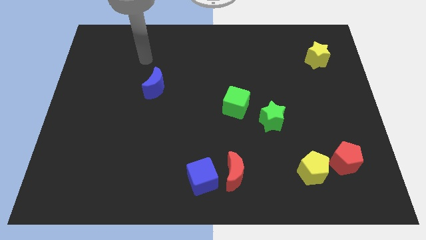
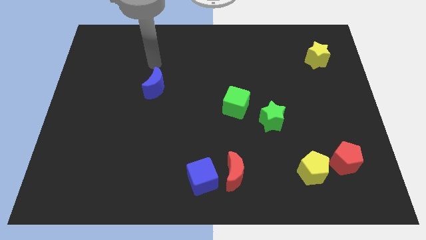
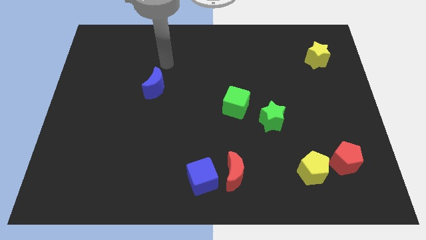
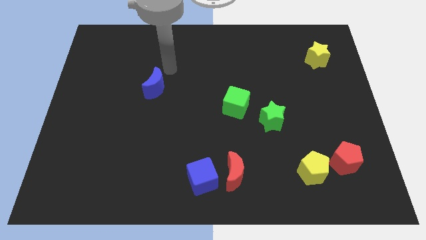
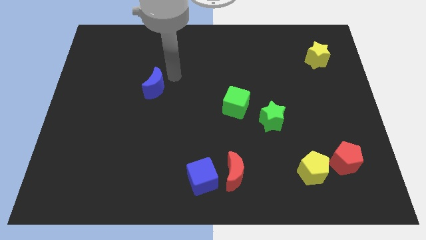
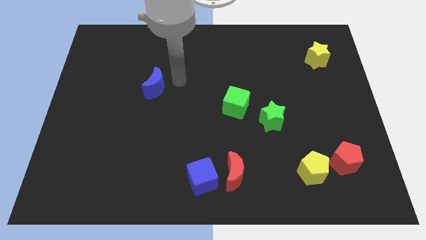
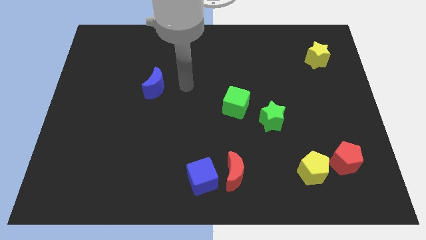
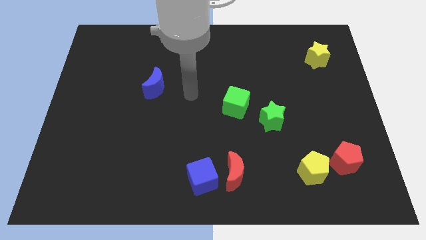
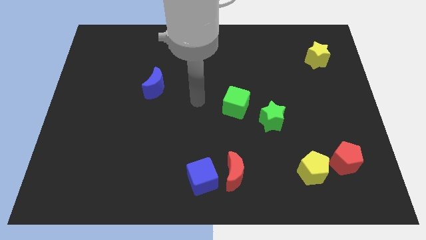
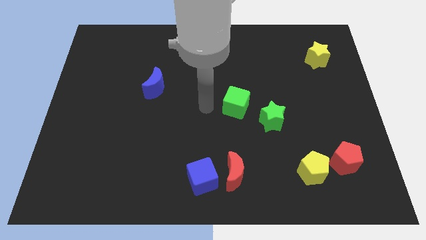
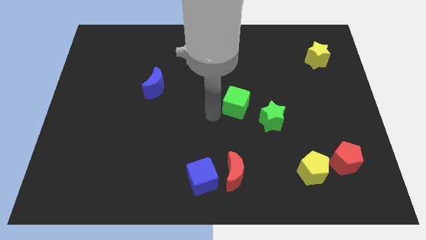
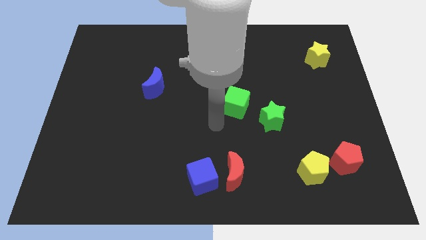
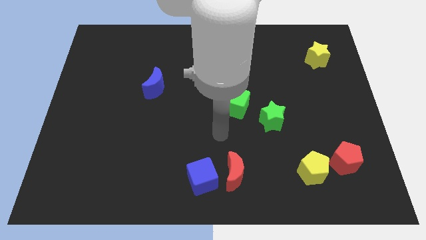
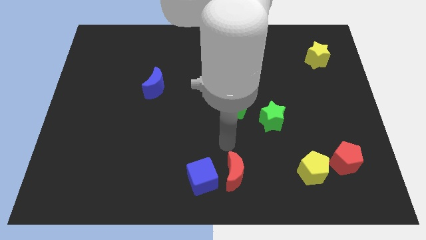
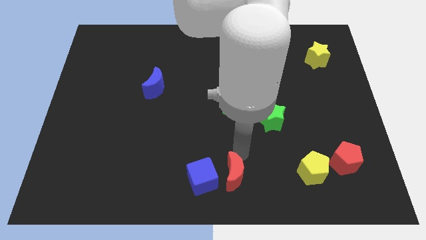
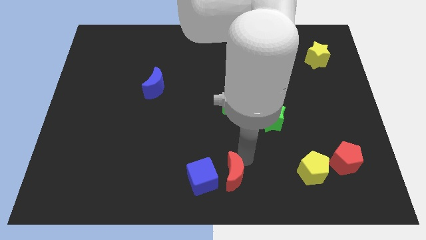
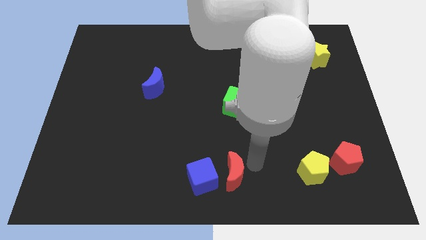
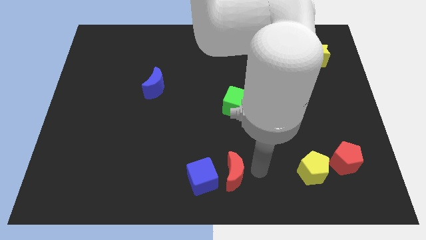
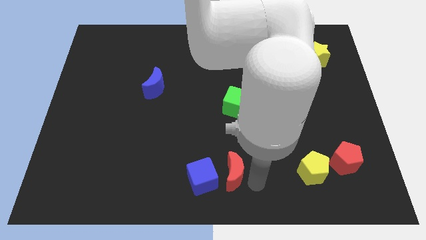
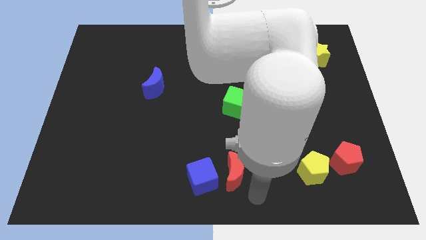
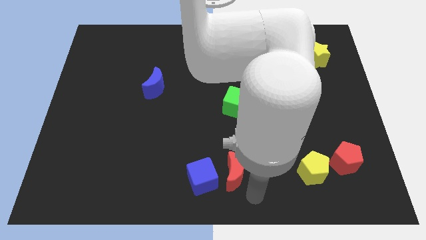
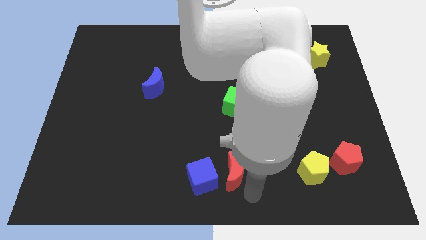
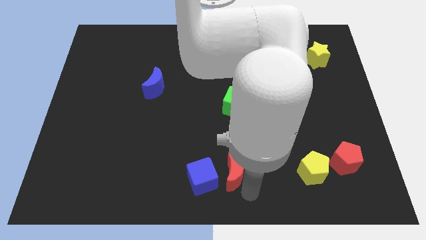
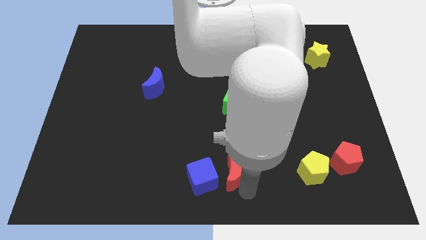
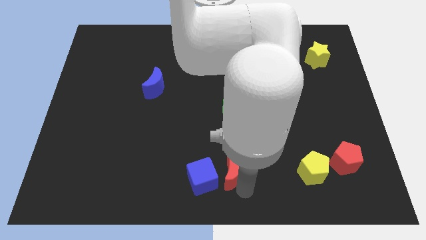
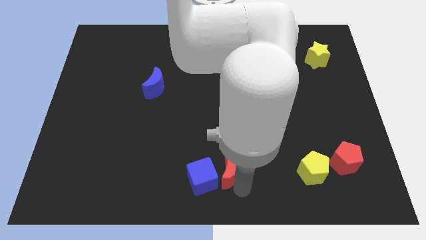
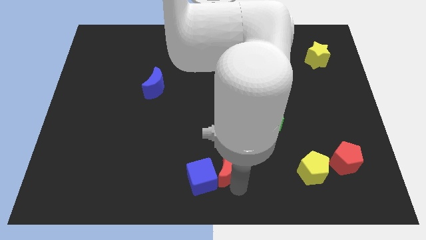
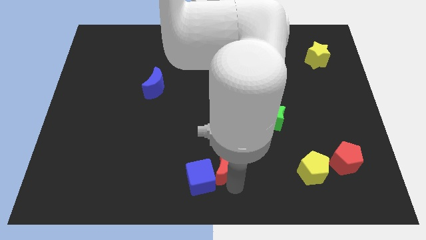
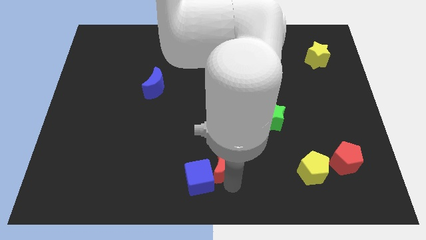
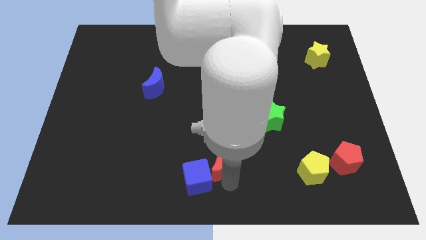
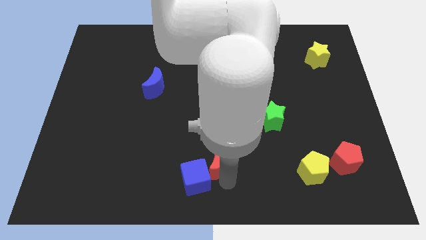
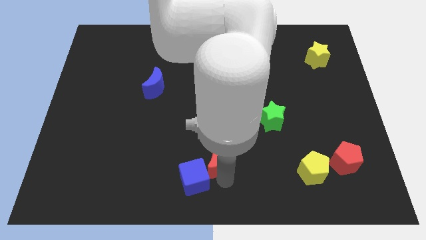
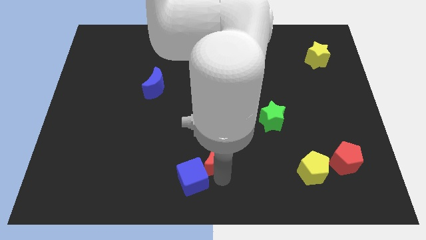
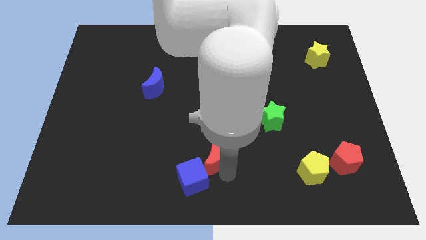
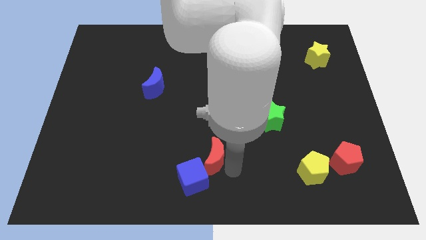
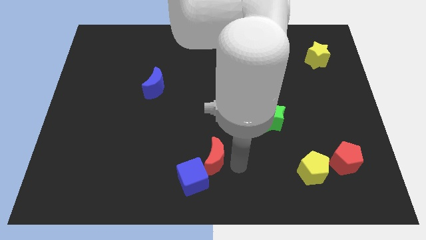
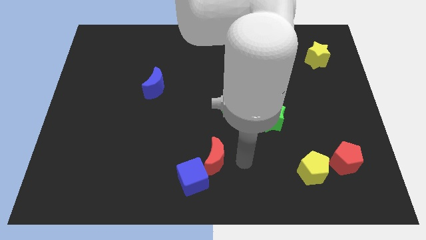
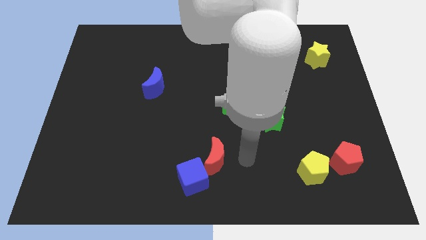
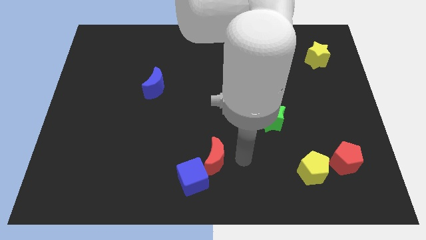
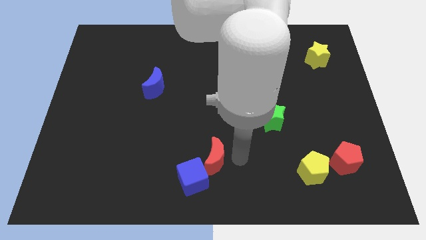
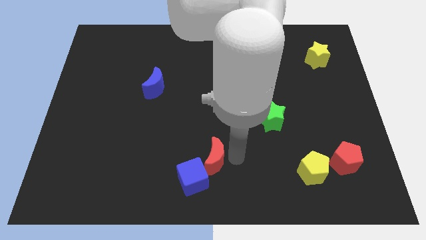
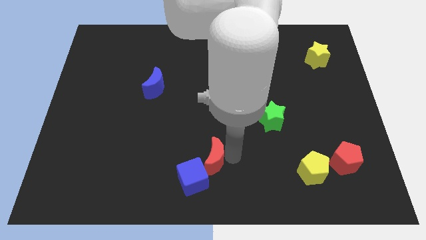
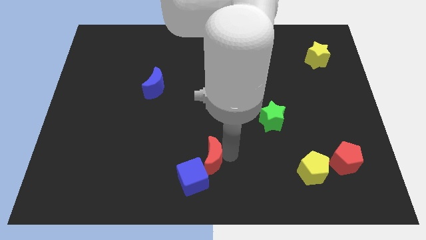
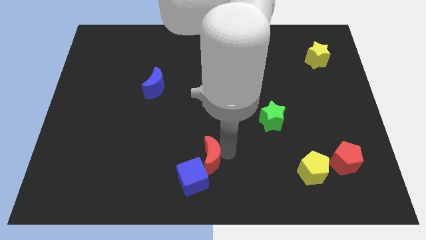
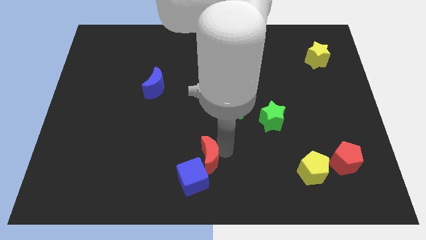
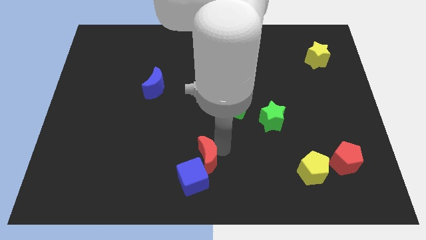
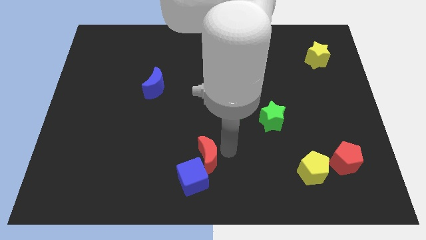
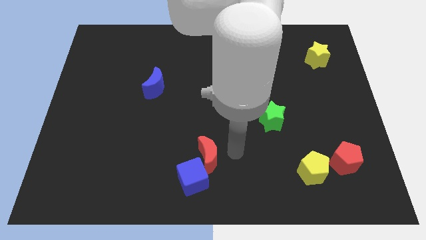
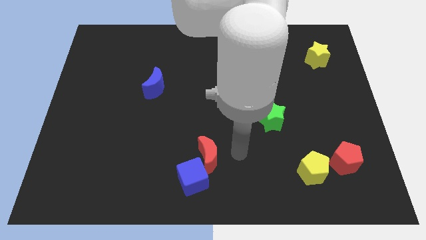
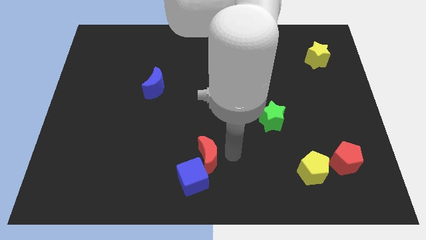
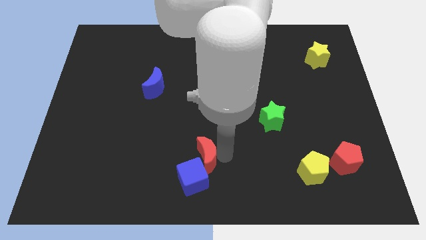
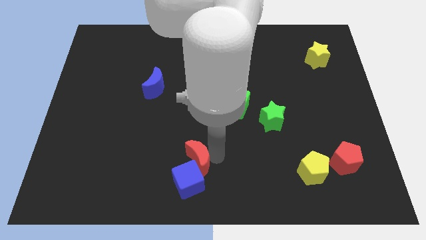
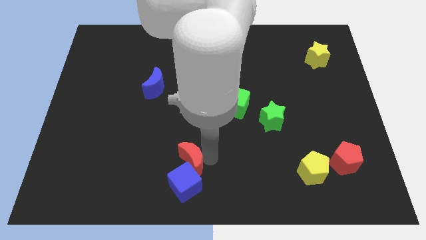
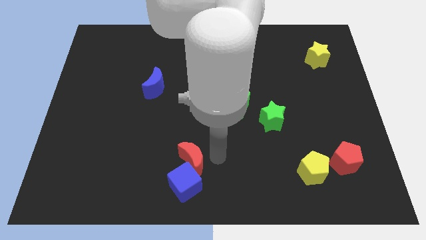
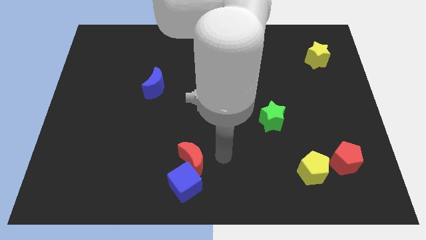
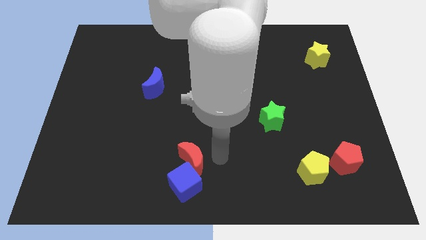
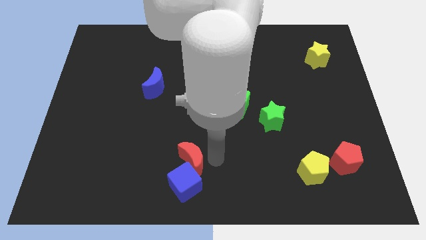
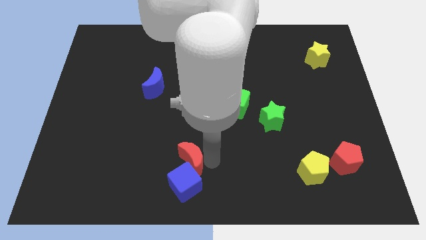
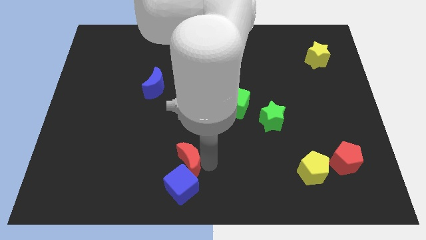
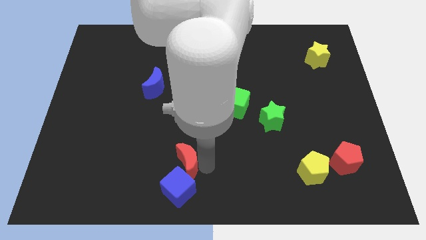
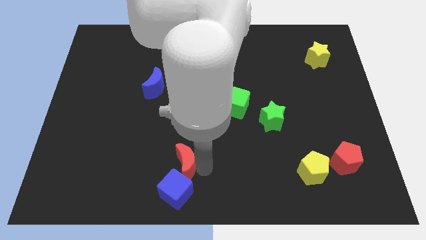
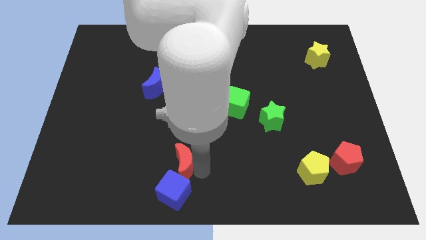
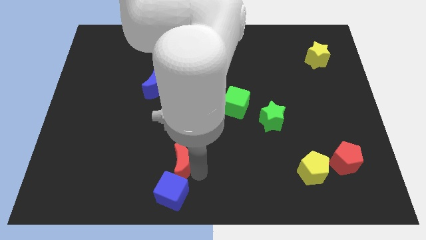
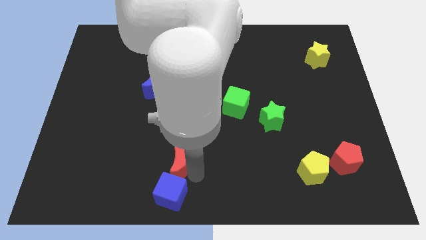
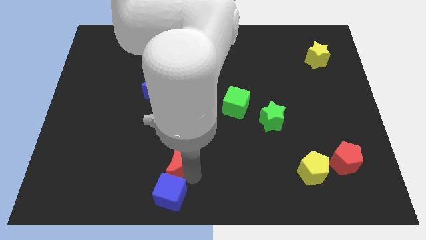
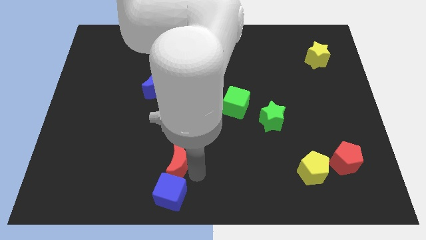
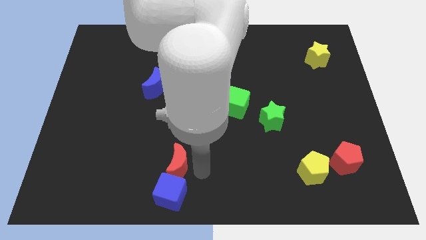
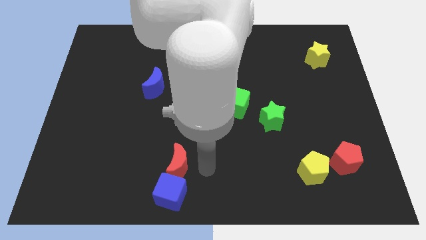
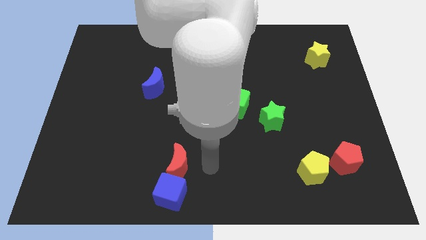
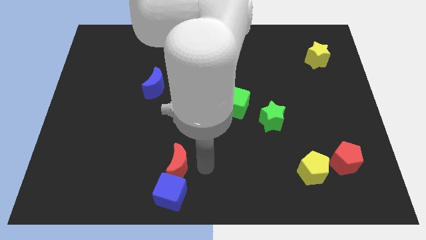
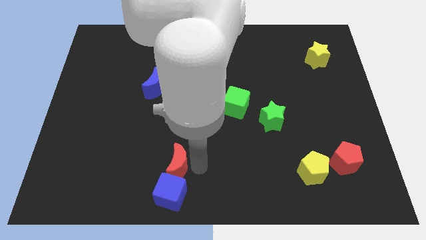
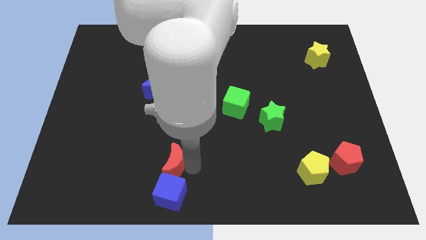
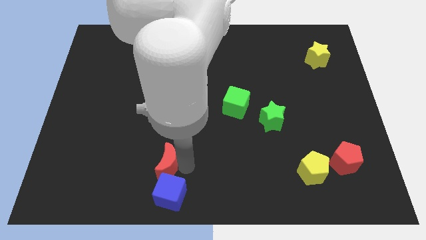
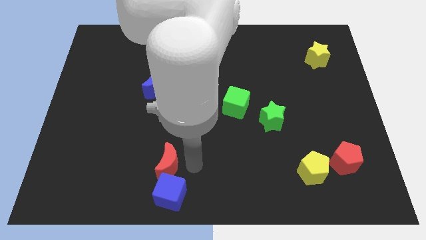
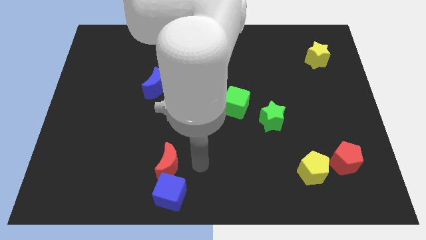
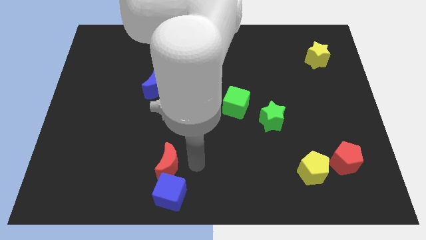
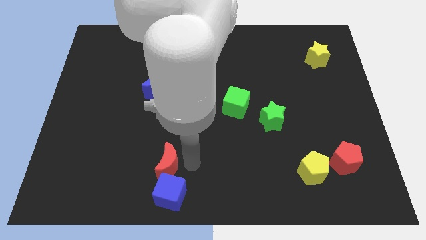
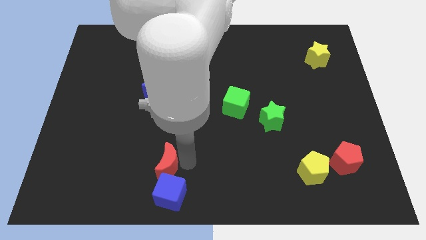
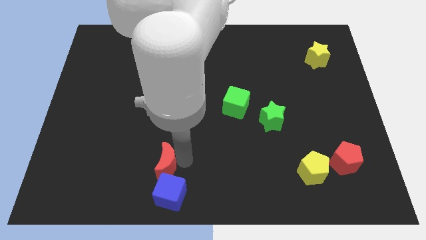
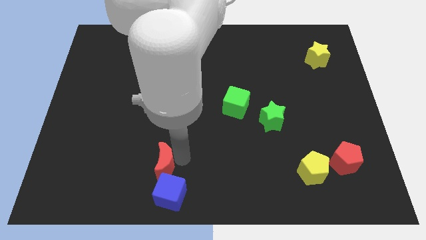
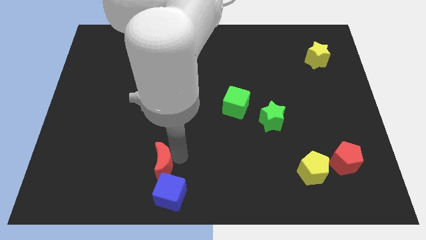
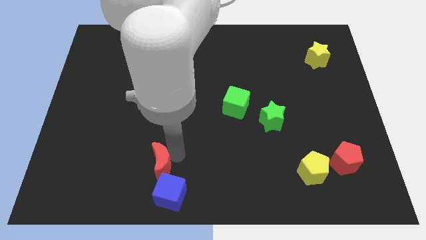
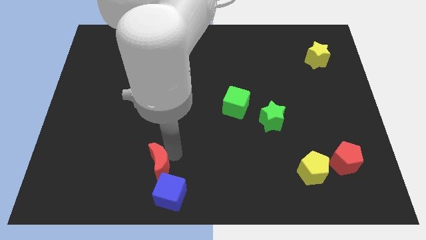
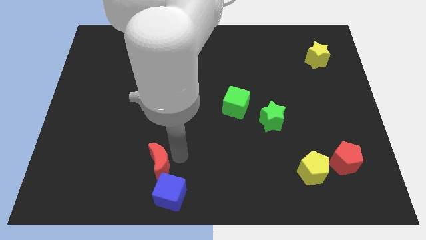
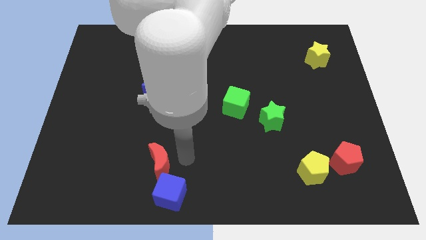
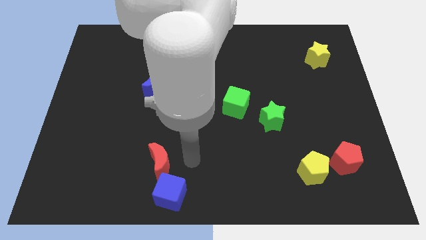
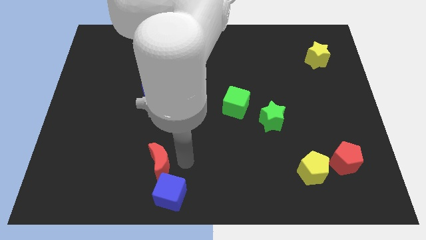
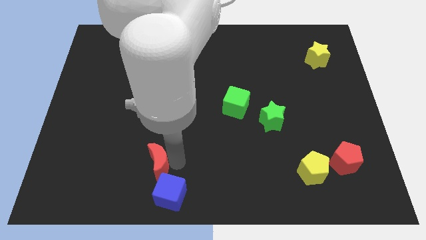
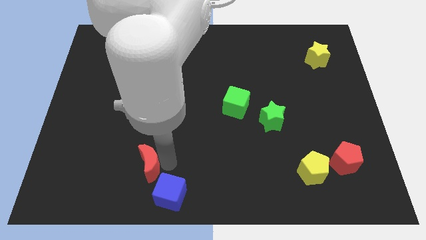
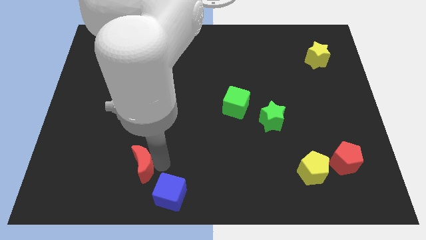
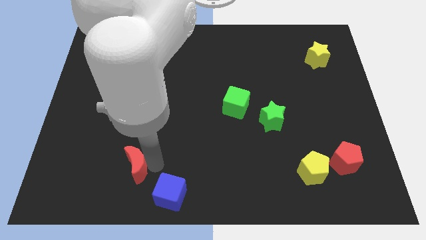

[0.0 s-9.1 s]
slide the red moon to the left
